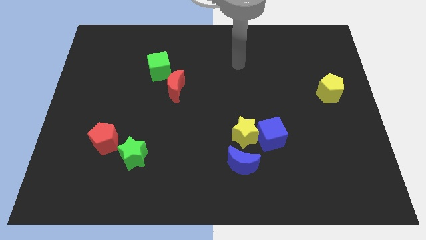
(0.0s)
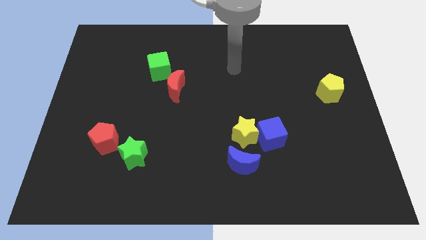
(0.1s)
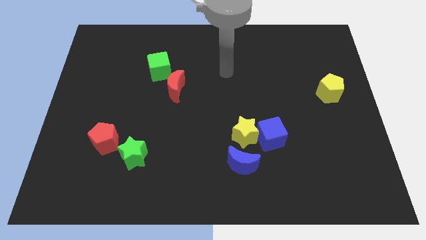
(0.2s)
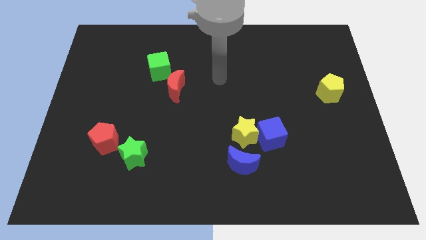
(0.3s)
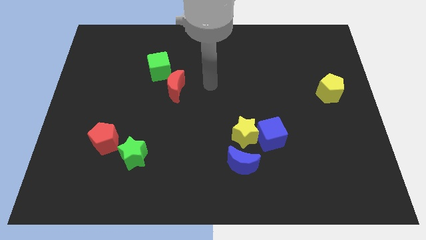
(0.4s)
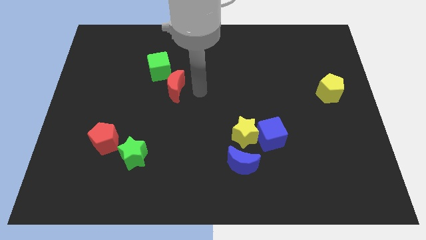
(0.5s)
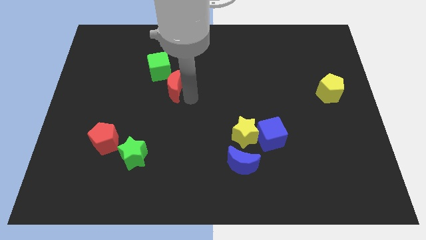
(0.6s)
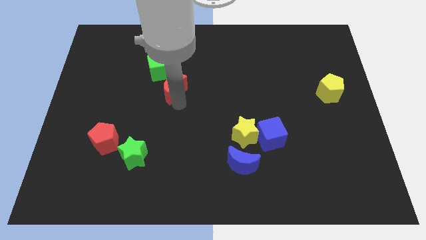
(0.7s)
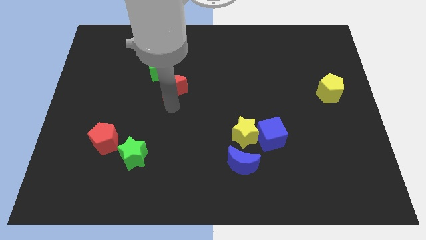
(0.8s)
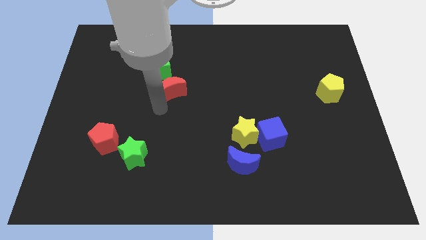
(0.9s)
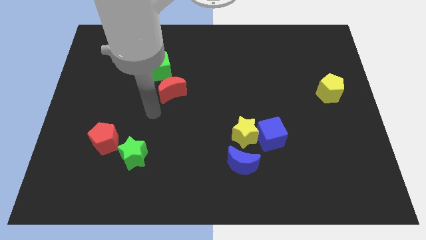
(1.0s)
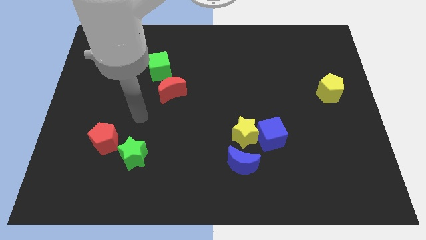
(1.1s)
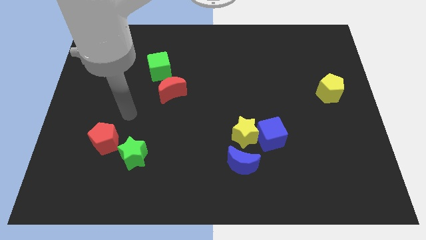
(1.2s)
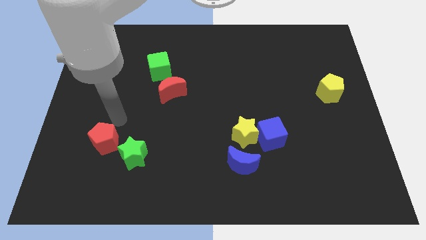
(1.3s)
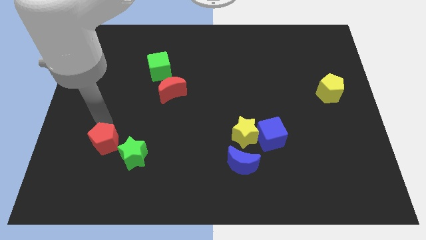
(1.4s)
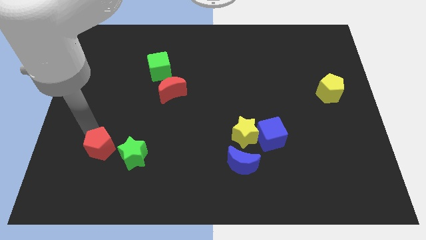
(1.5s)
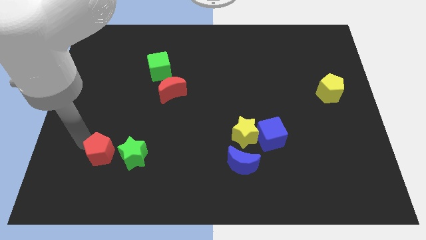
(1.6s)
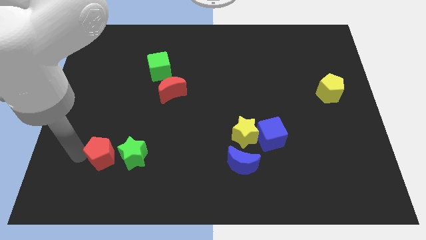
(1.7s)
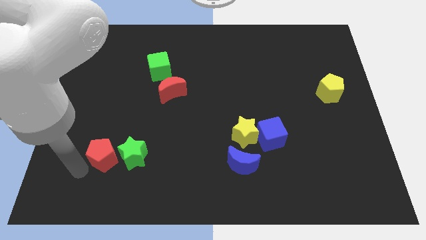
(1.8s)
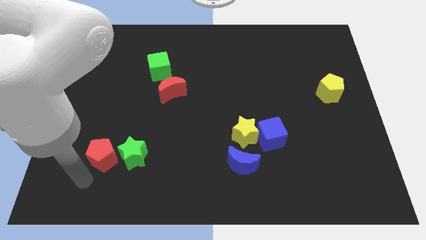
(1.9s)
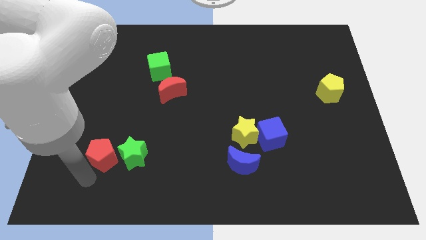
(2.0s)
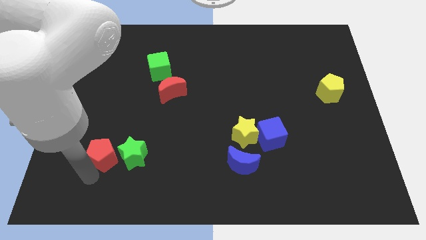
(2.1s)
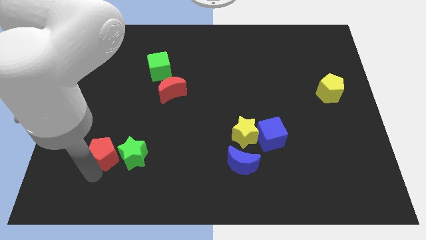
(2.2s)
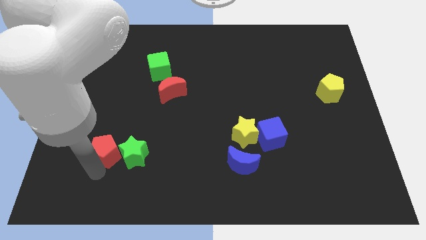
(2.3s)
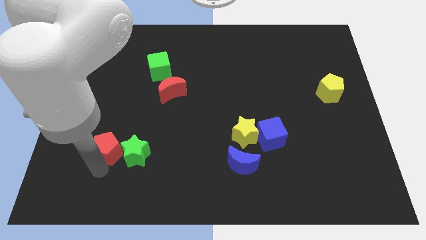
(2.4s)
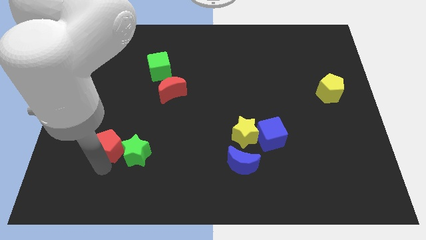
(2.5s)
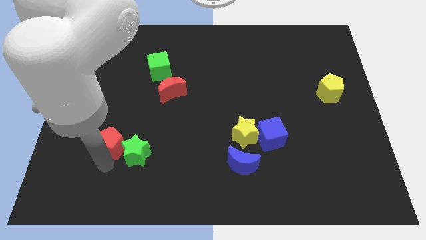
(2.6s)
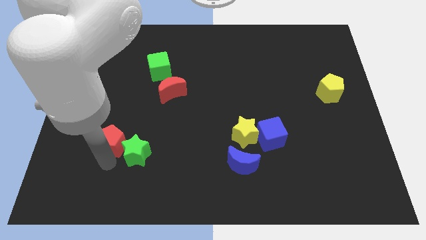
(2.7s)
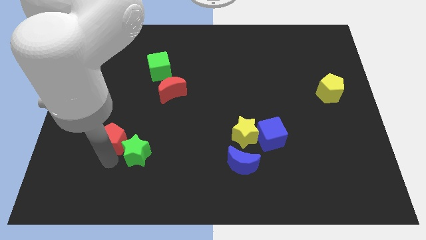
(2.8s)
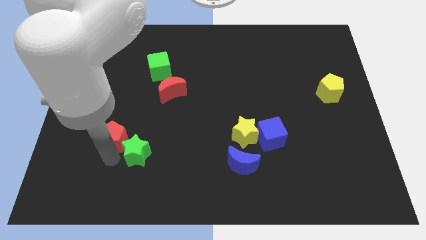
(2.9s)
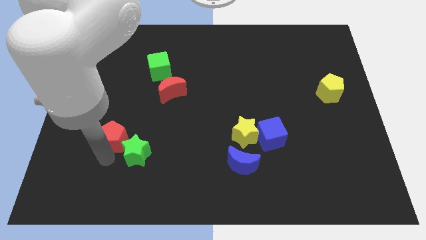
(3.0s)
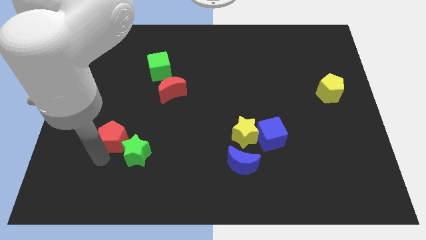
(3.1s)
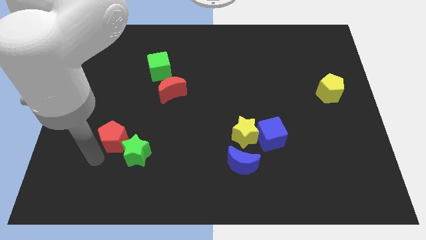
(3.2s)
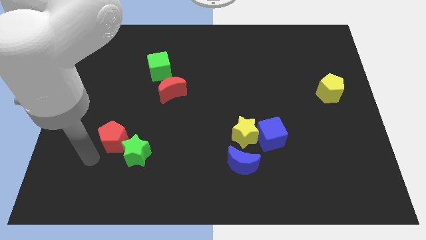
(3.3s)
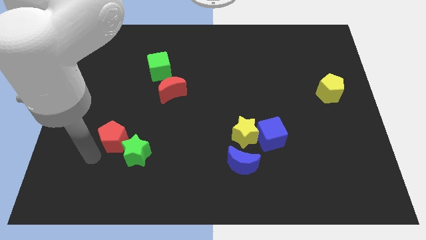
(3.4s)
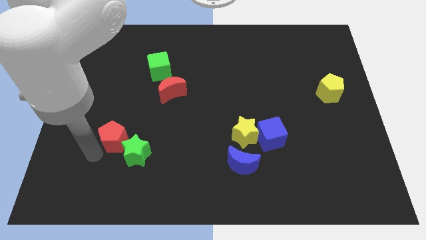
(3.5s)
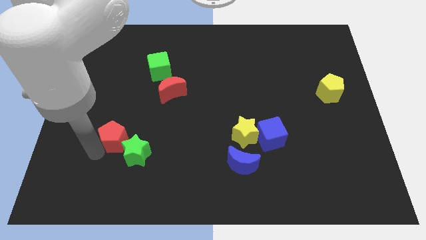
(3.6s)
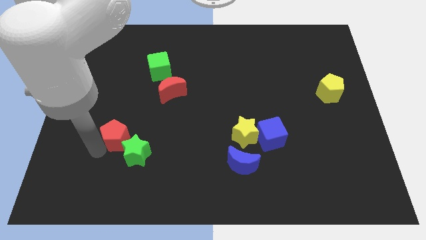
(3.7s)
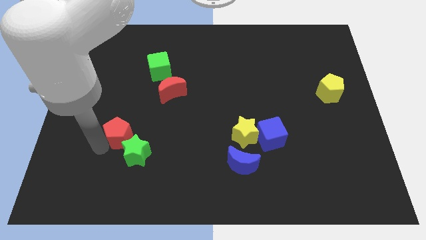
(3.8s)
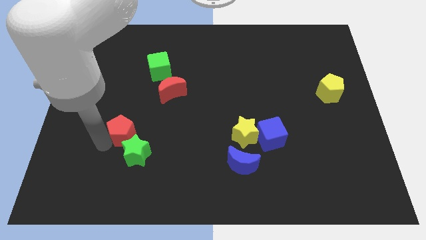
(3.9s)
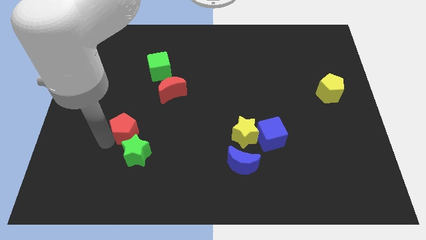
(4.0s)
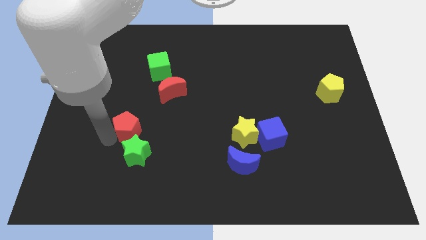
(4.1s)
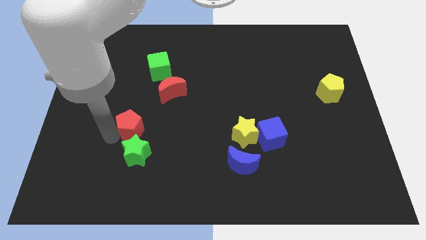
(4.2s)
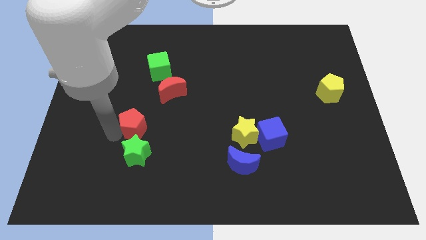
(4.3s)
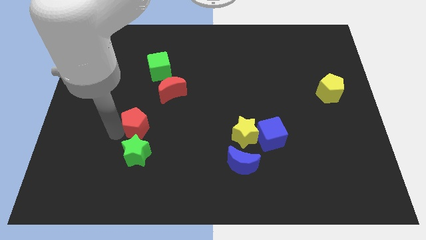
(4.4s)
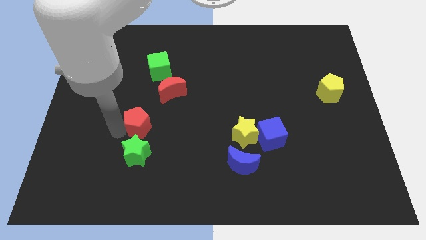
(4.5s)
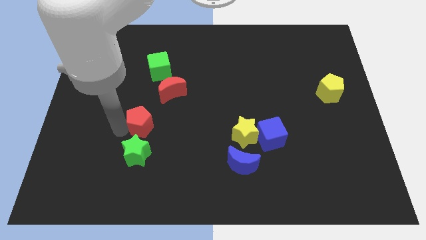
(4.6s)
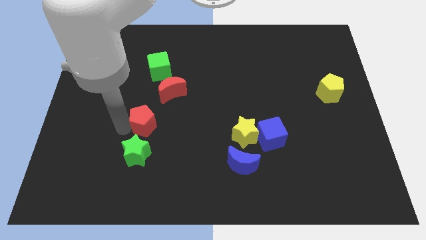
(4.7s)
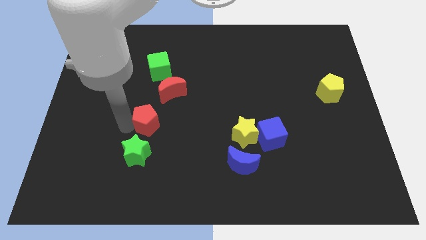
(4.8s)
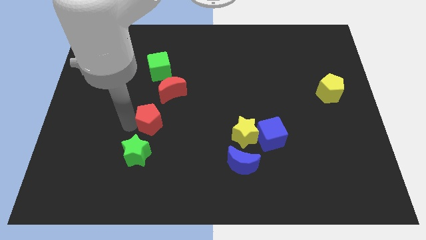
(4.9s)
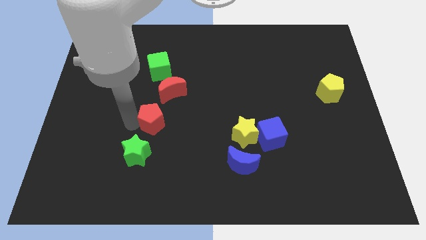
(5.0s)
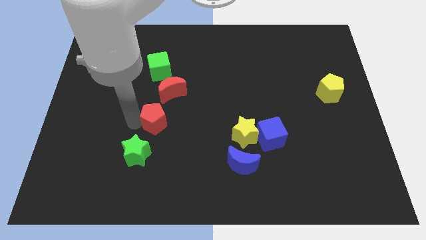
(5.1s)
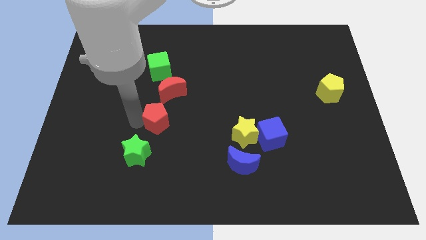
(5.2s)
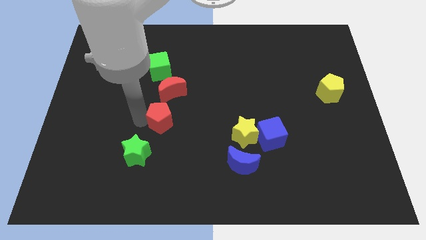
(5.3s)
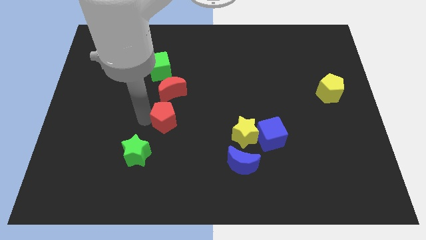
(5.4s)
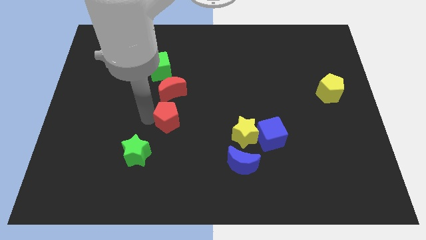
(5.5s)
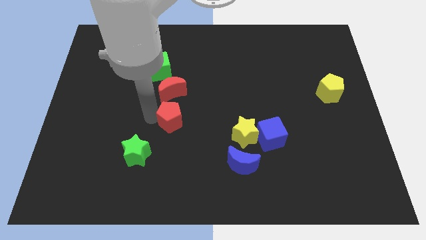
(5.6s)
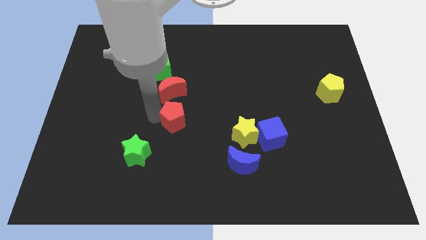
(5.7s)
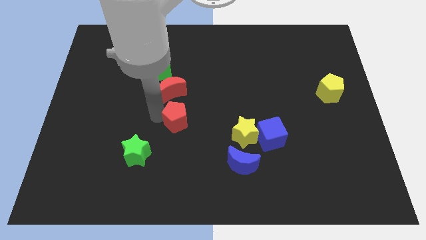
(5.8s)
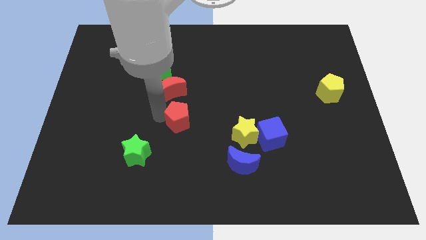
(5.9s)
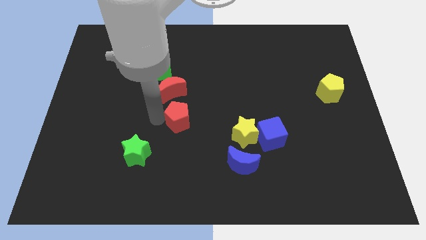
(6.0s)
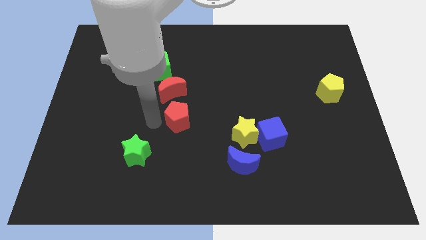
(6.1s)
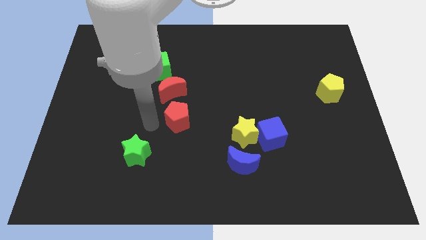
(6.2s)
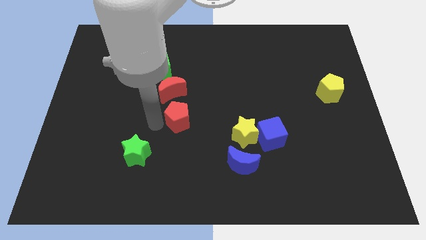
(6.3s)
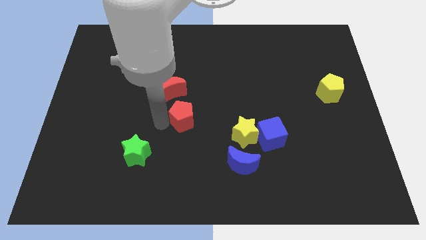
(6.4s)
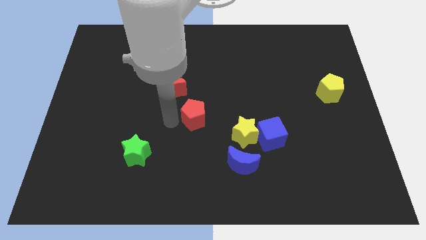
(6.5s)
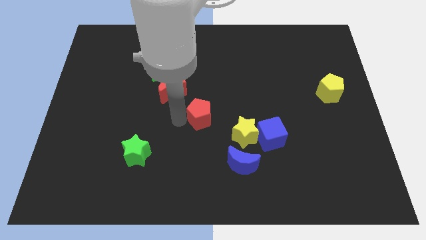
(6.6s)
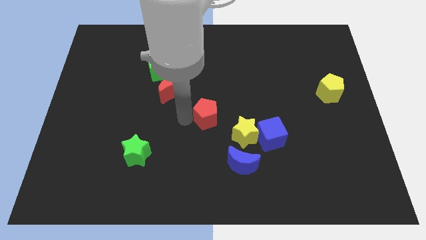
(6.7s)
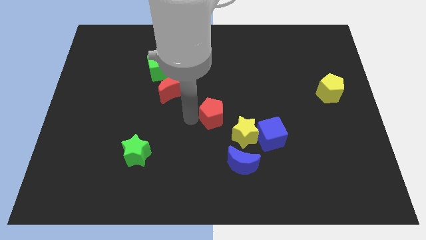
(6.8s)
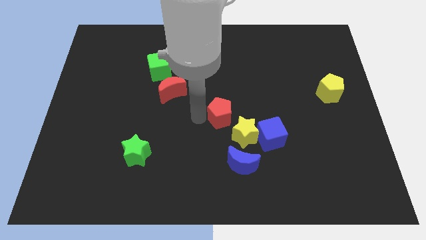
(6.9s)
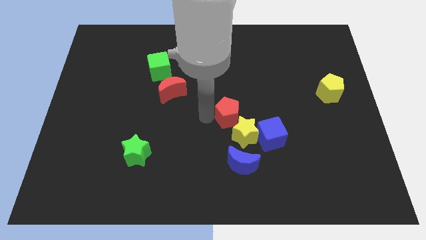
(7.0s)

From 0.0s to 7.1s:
move the red pentagon to the top left side of the blue cube
